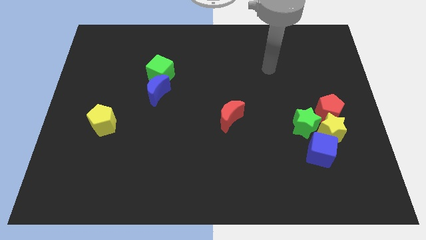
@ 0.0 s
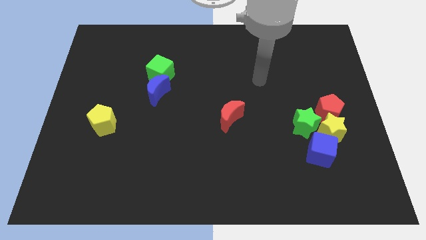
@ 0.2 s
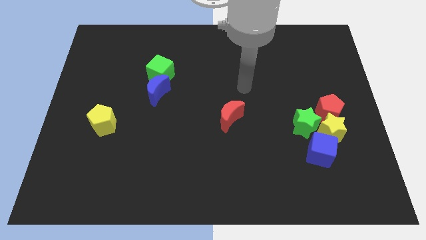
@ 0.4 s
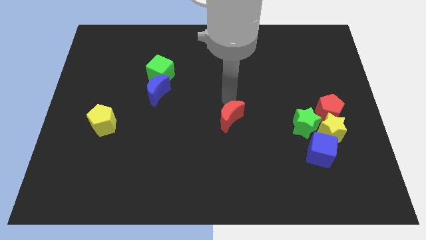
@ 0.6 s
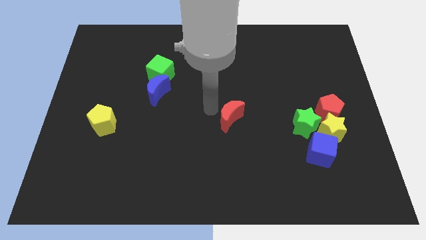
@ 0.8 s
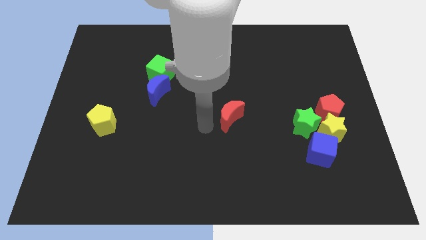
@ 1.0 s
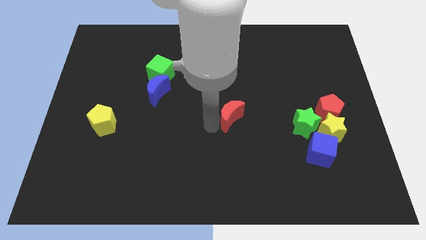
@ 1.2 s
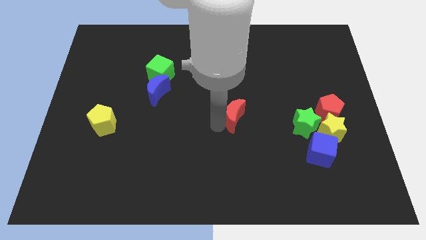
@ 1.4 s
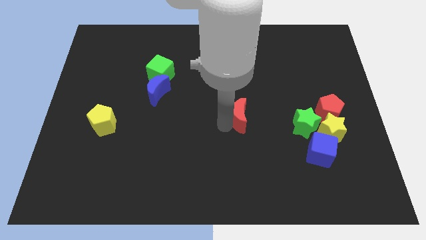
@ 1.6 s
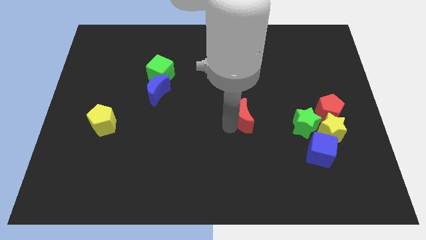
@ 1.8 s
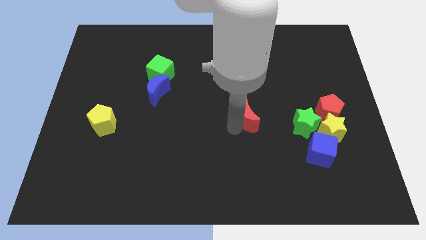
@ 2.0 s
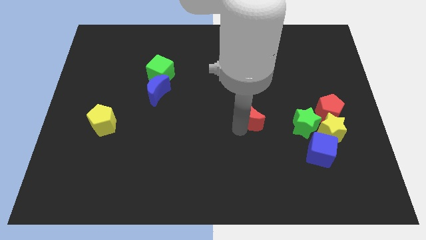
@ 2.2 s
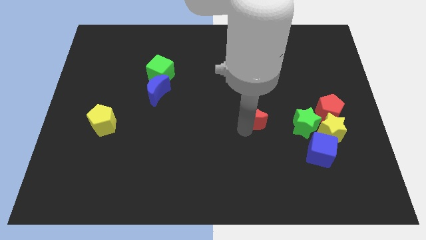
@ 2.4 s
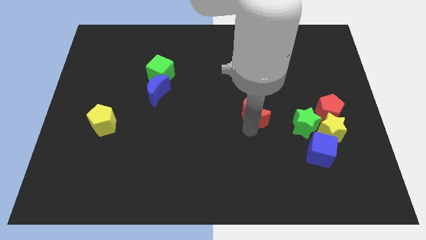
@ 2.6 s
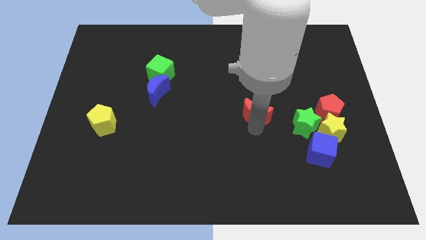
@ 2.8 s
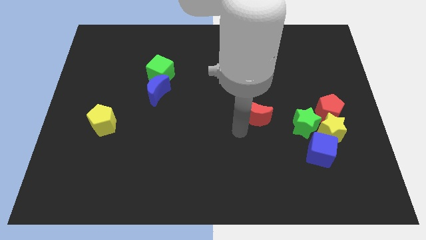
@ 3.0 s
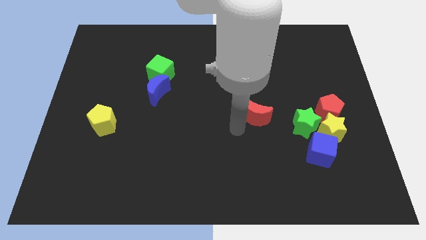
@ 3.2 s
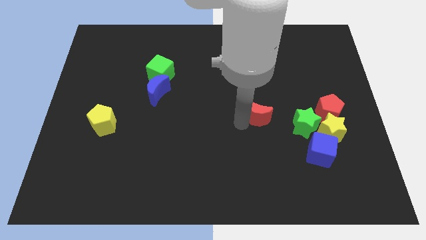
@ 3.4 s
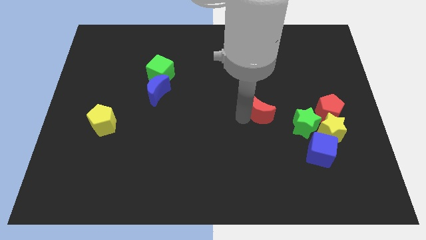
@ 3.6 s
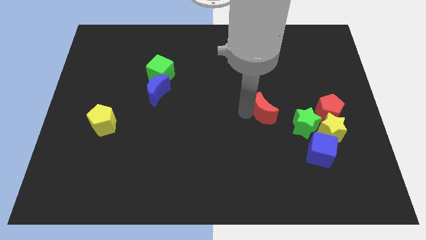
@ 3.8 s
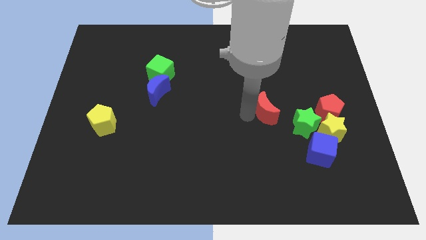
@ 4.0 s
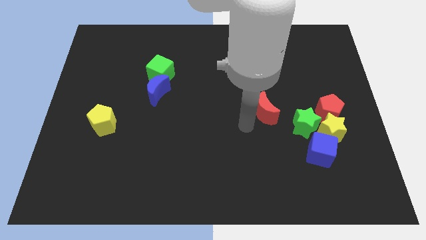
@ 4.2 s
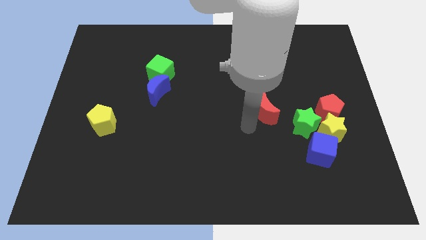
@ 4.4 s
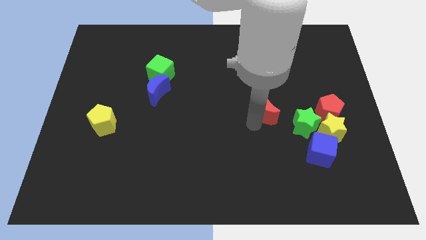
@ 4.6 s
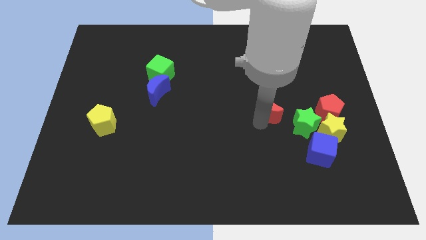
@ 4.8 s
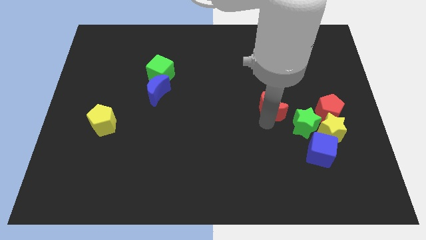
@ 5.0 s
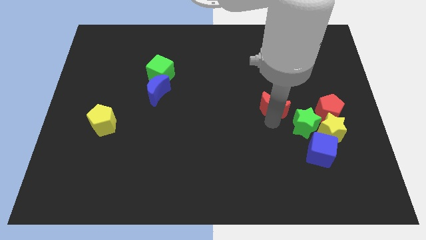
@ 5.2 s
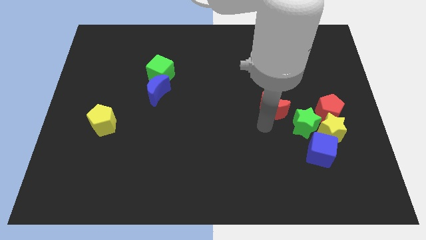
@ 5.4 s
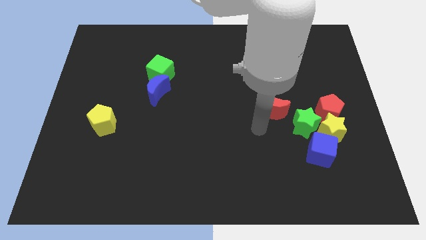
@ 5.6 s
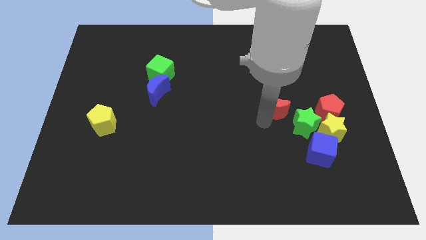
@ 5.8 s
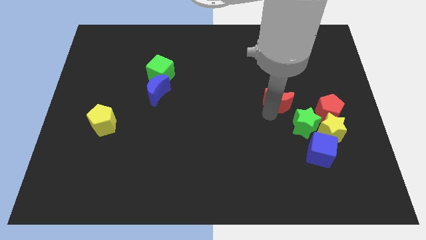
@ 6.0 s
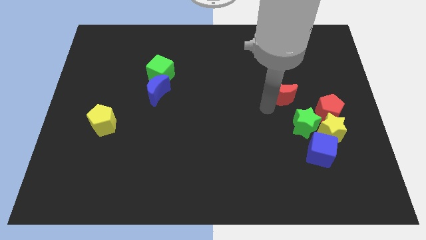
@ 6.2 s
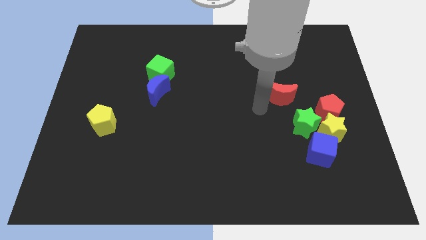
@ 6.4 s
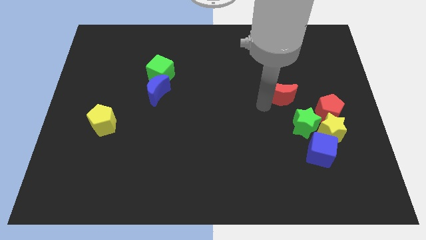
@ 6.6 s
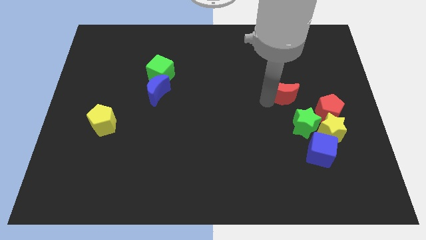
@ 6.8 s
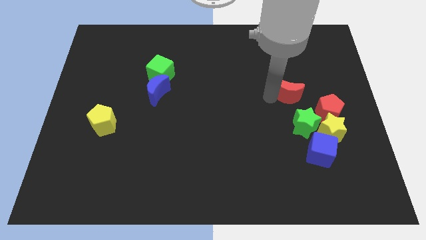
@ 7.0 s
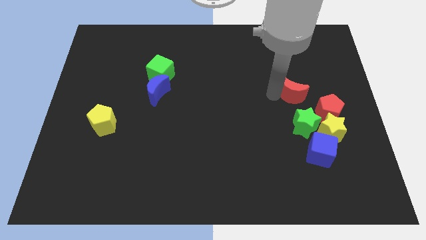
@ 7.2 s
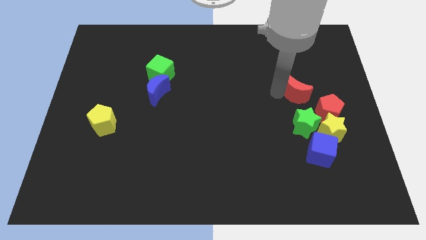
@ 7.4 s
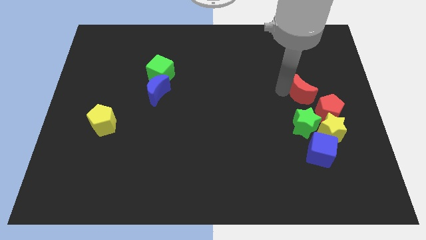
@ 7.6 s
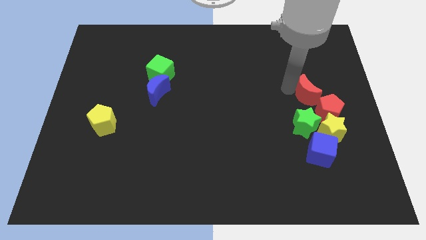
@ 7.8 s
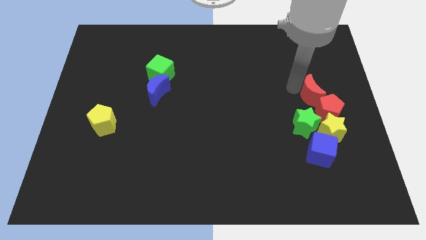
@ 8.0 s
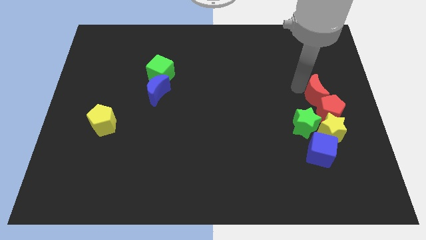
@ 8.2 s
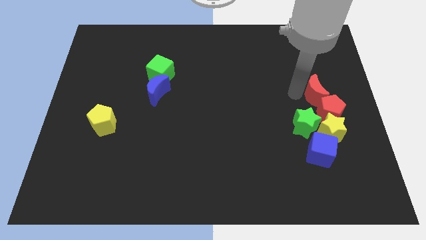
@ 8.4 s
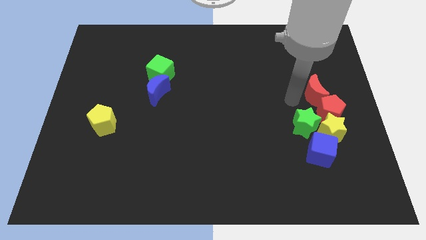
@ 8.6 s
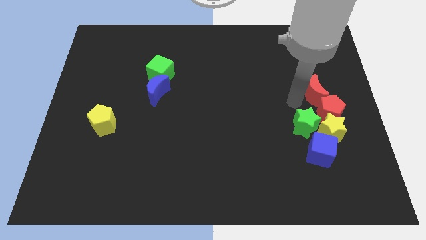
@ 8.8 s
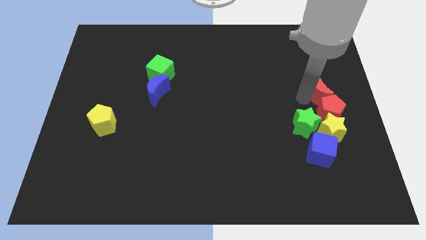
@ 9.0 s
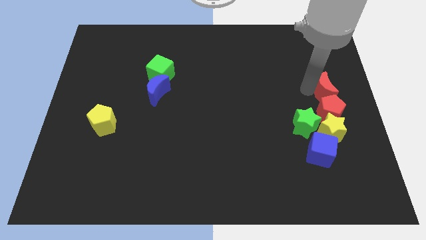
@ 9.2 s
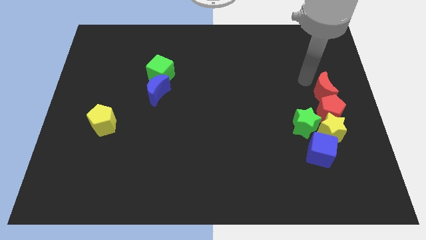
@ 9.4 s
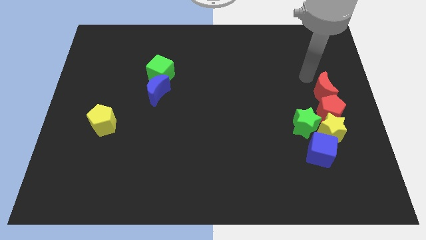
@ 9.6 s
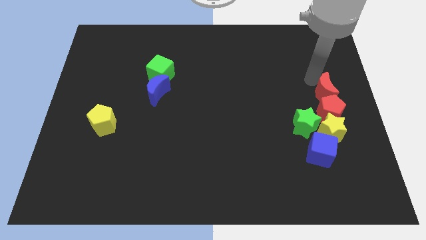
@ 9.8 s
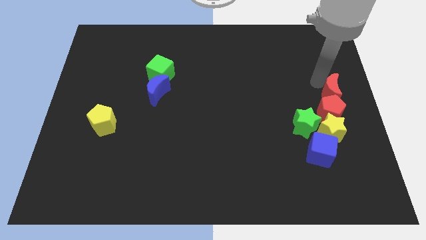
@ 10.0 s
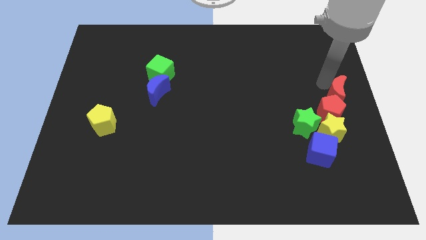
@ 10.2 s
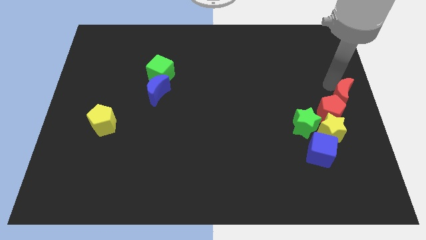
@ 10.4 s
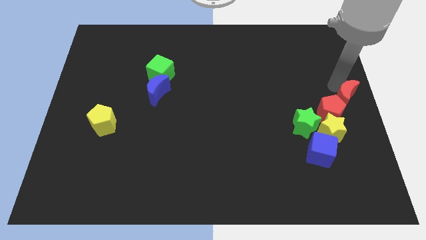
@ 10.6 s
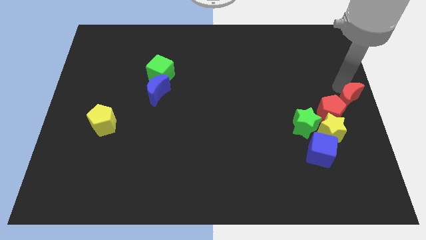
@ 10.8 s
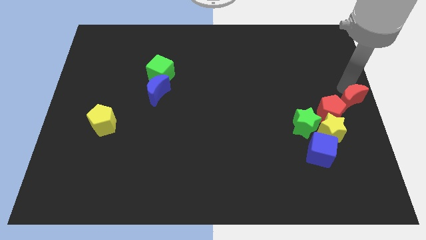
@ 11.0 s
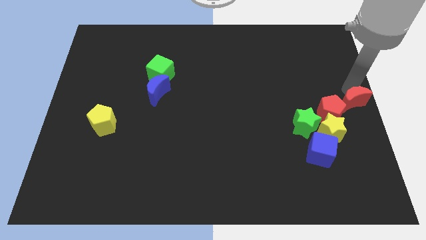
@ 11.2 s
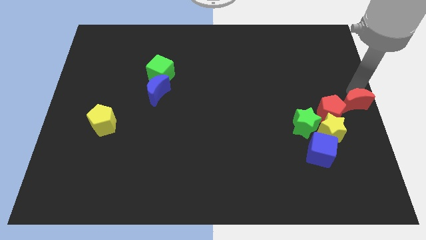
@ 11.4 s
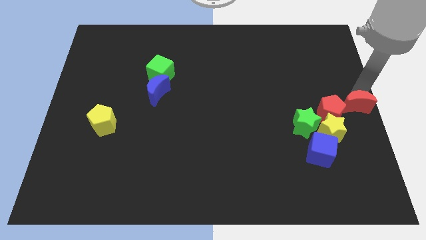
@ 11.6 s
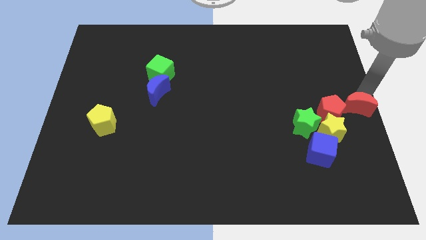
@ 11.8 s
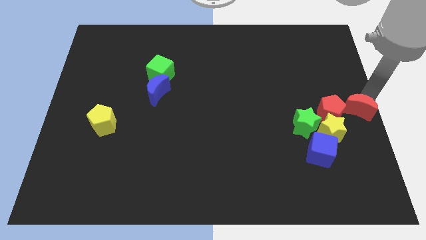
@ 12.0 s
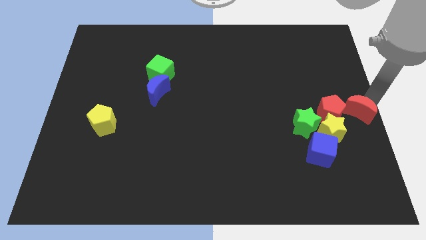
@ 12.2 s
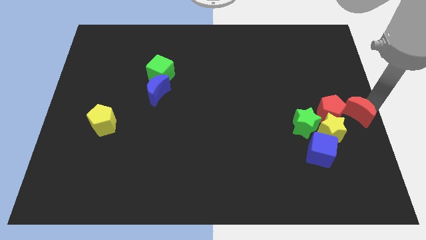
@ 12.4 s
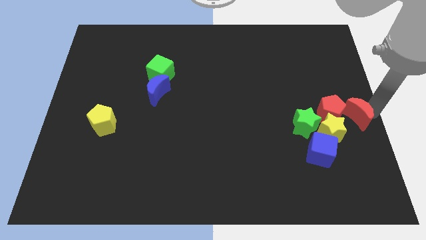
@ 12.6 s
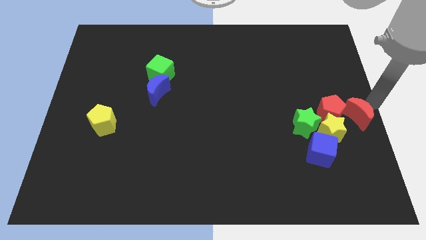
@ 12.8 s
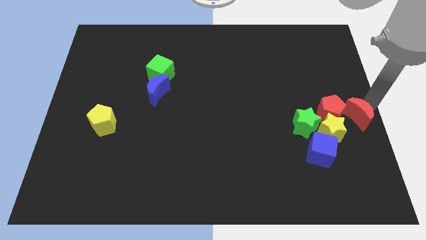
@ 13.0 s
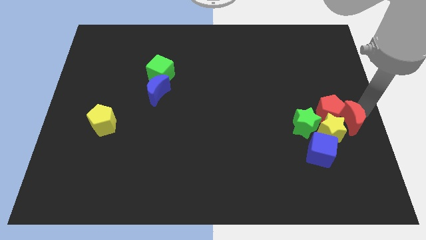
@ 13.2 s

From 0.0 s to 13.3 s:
push the red moon to the top right of the blue cube

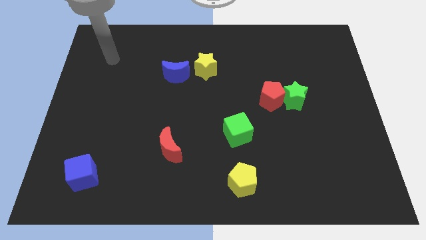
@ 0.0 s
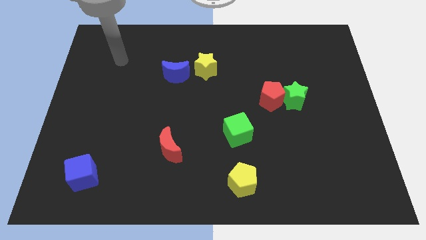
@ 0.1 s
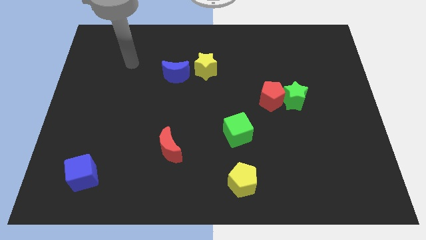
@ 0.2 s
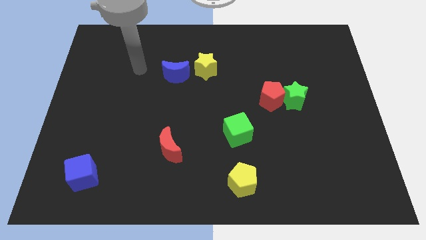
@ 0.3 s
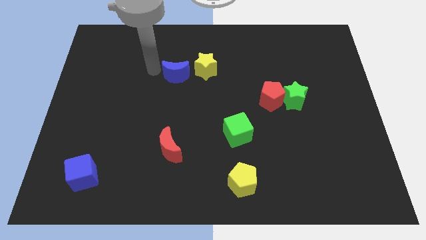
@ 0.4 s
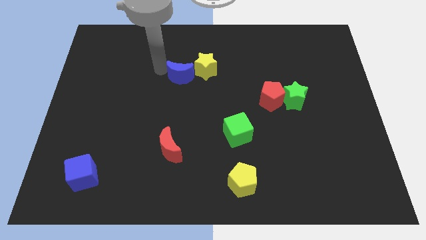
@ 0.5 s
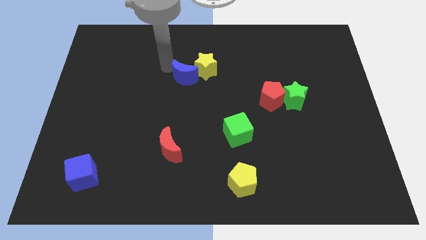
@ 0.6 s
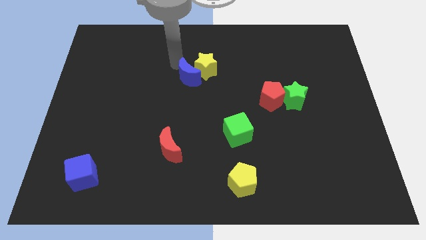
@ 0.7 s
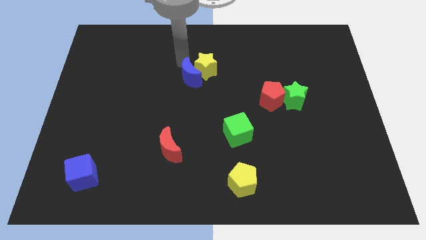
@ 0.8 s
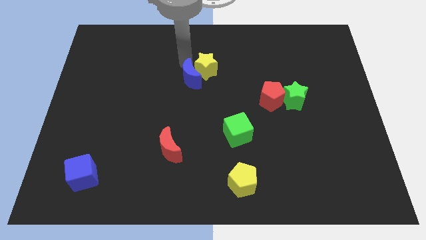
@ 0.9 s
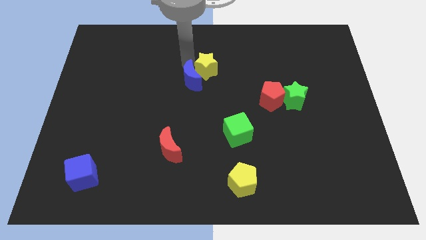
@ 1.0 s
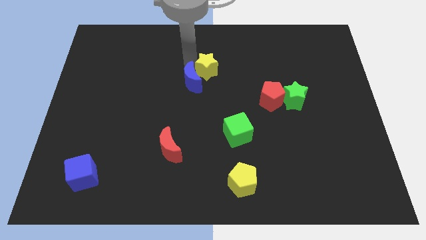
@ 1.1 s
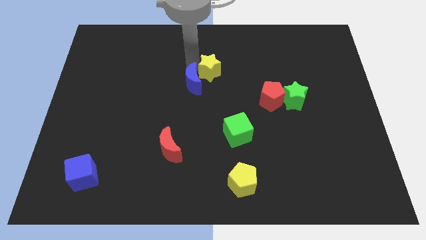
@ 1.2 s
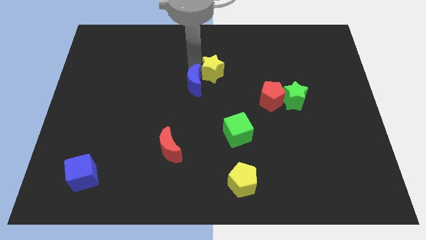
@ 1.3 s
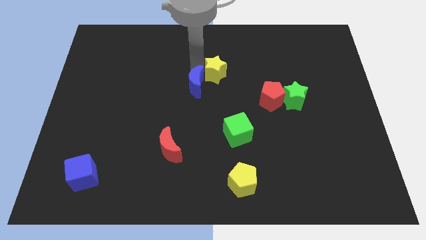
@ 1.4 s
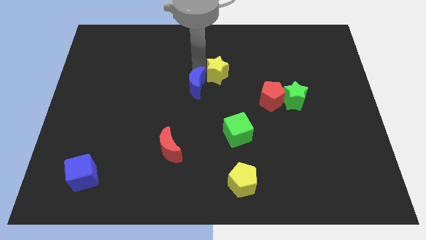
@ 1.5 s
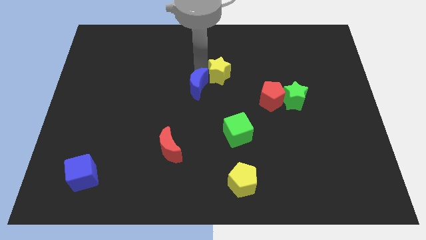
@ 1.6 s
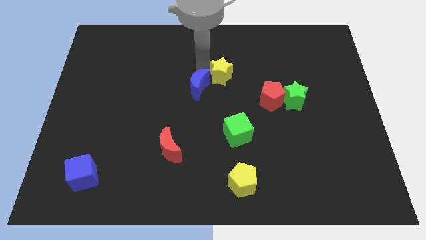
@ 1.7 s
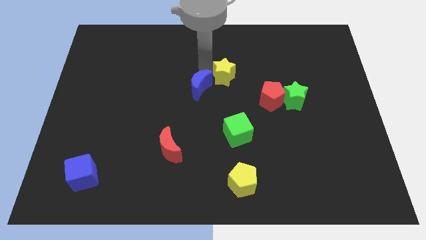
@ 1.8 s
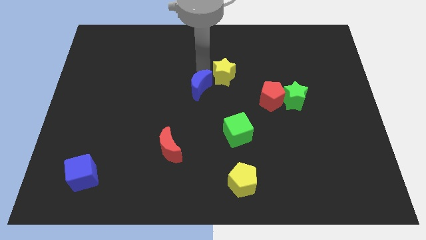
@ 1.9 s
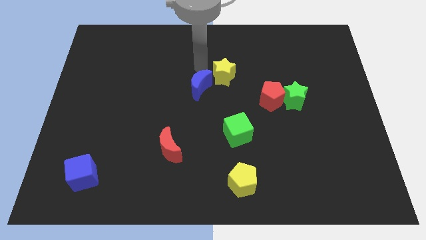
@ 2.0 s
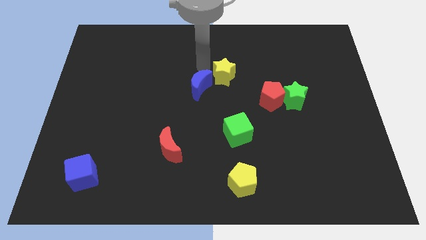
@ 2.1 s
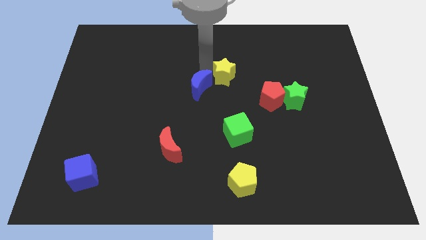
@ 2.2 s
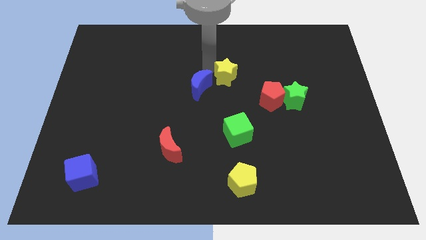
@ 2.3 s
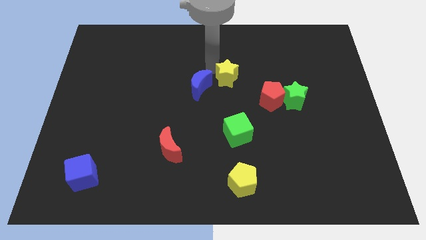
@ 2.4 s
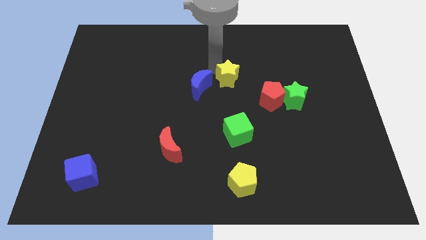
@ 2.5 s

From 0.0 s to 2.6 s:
slide the yellow star to the top left of the red pentagon
